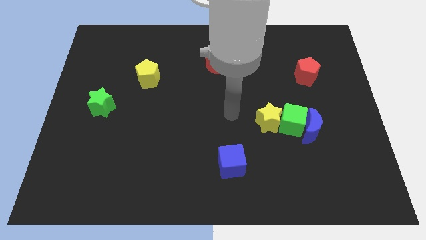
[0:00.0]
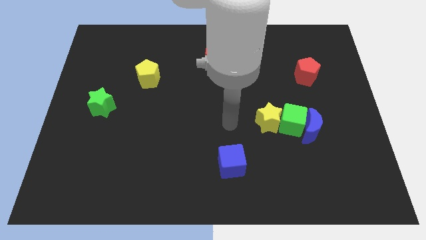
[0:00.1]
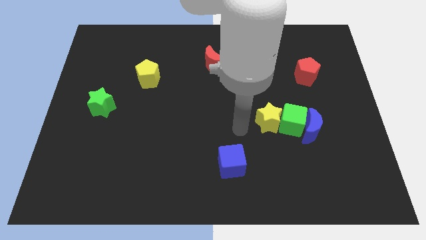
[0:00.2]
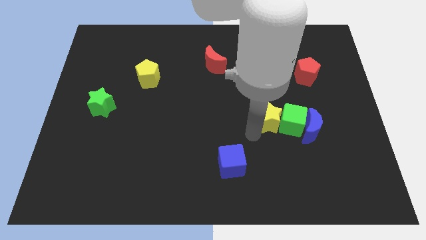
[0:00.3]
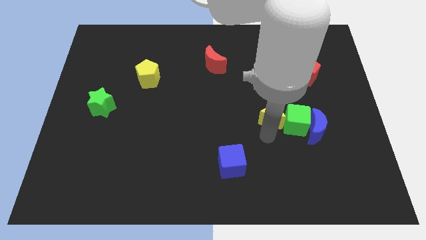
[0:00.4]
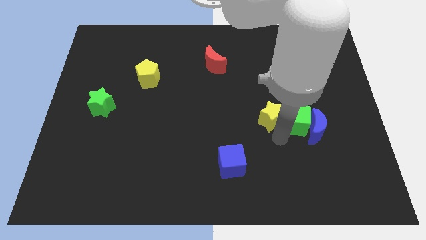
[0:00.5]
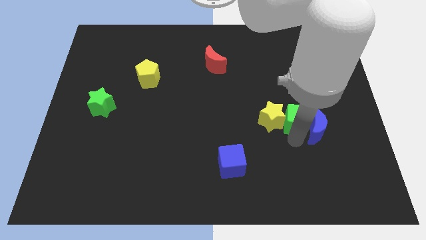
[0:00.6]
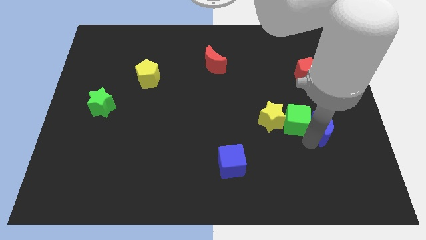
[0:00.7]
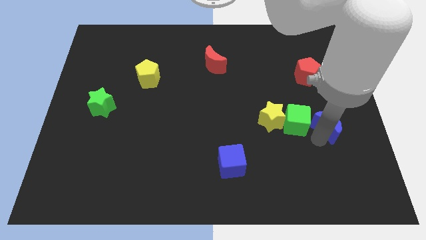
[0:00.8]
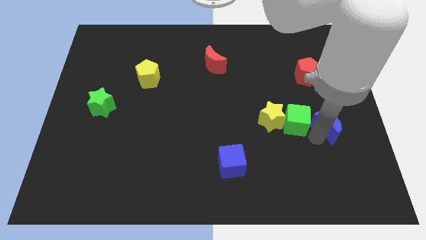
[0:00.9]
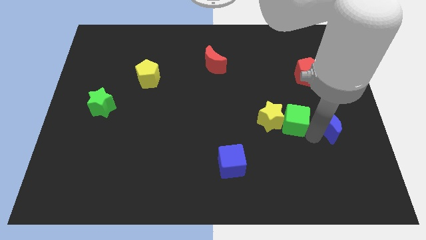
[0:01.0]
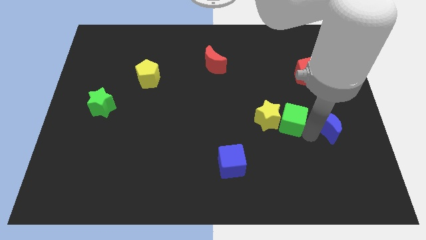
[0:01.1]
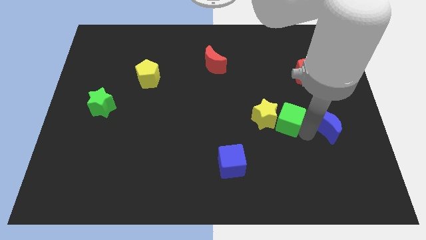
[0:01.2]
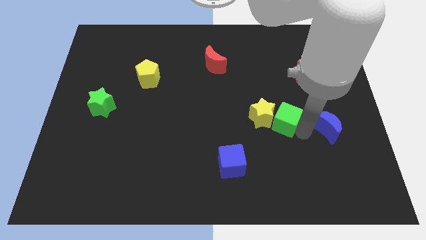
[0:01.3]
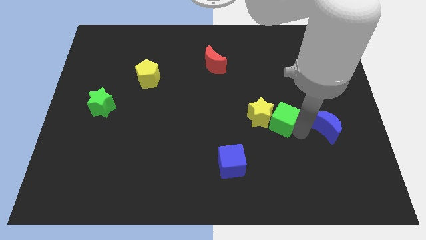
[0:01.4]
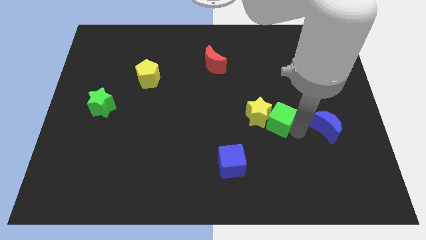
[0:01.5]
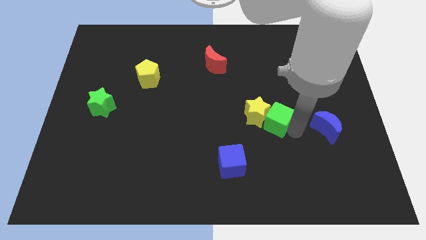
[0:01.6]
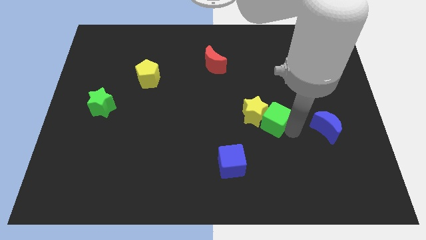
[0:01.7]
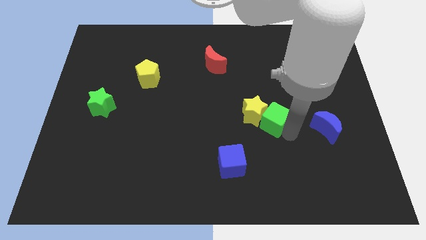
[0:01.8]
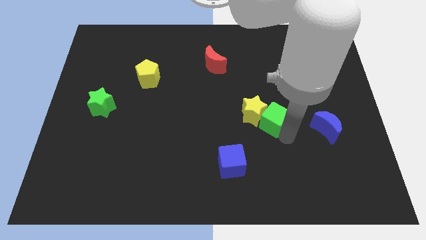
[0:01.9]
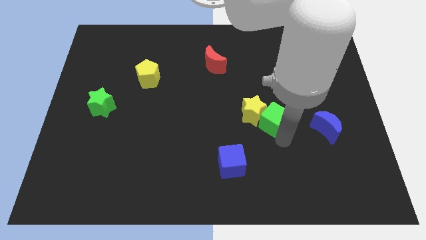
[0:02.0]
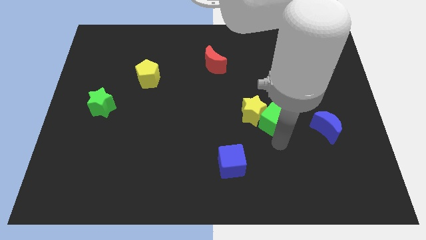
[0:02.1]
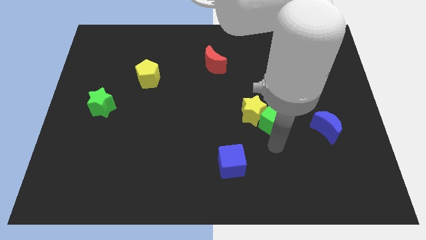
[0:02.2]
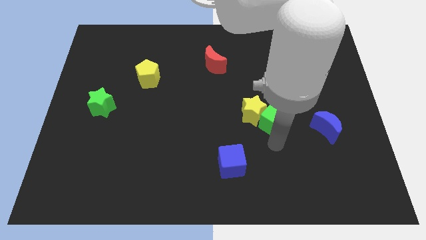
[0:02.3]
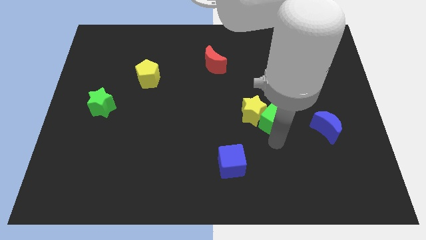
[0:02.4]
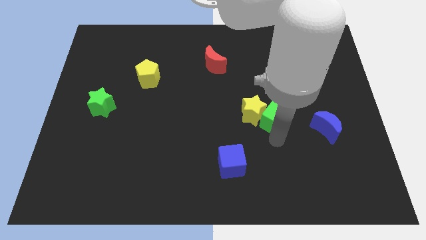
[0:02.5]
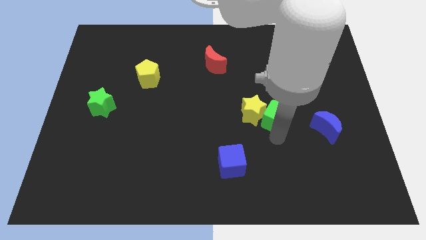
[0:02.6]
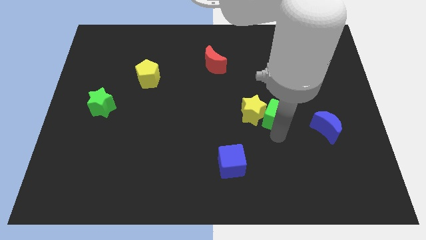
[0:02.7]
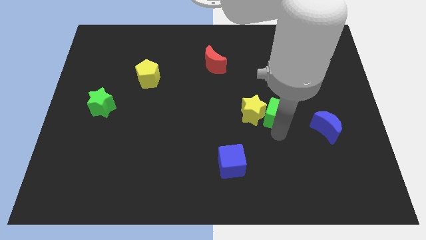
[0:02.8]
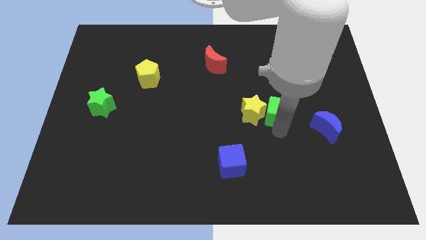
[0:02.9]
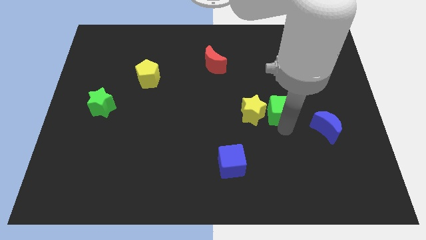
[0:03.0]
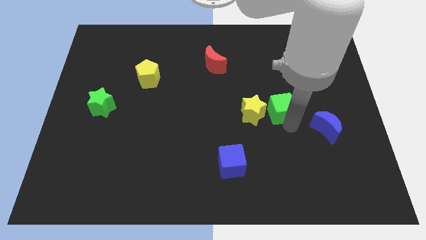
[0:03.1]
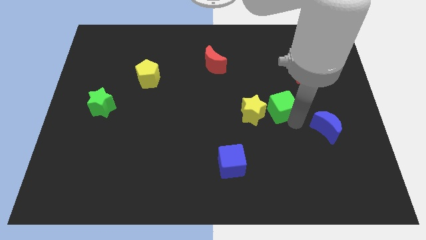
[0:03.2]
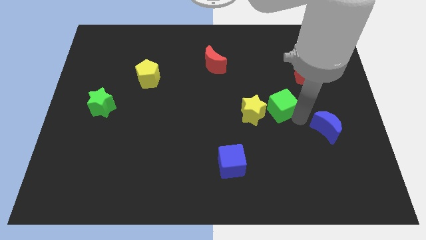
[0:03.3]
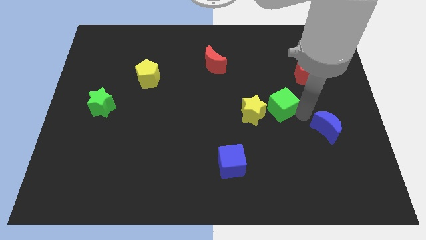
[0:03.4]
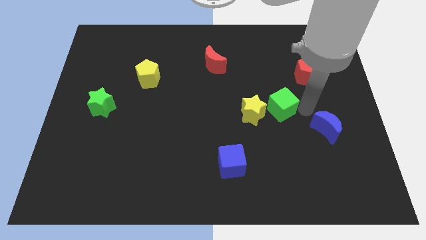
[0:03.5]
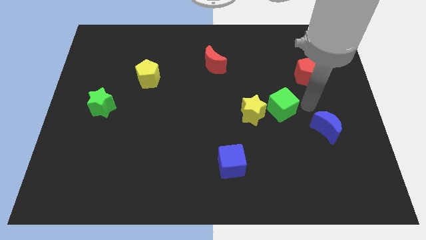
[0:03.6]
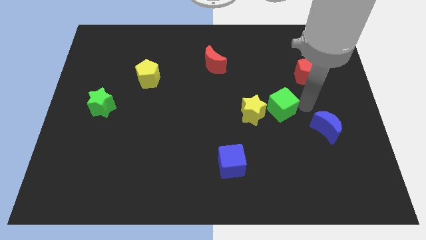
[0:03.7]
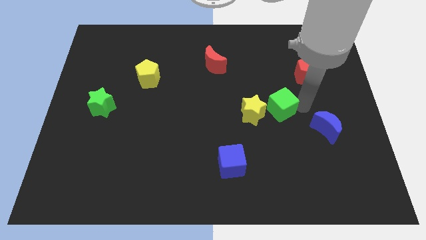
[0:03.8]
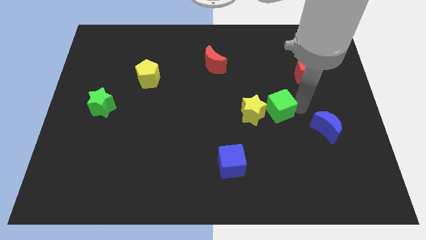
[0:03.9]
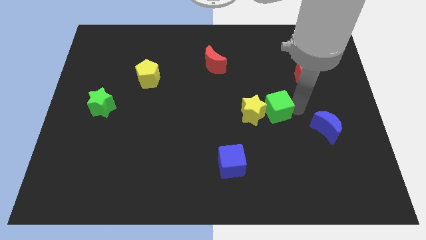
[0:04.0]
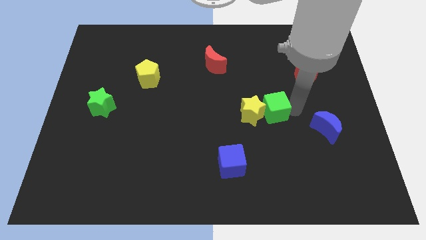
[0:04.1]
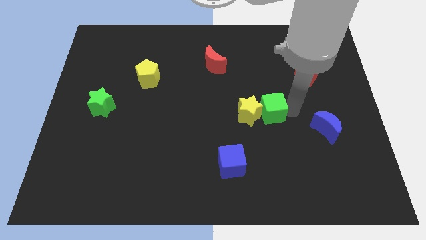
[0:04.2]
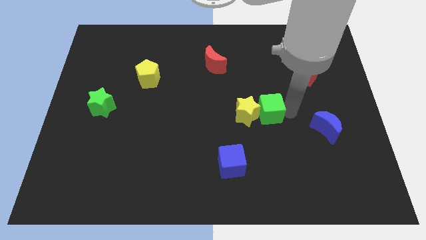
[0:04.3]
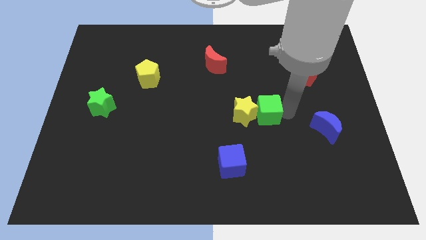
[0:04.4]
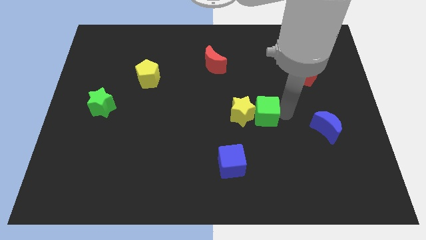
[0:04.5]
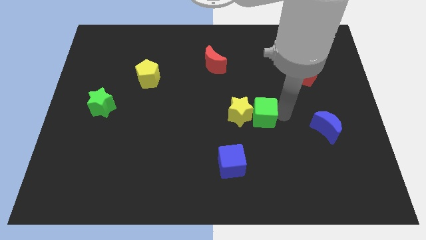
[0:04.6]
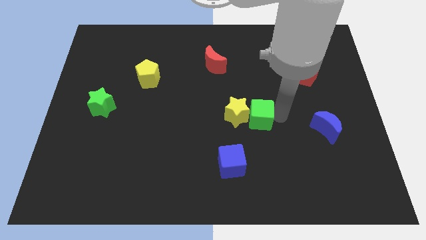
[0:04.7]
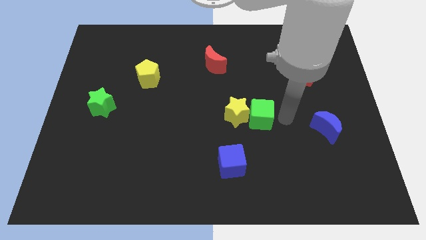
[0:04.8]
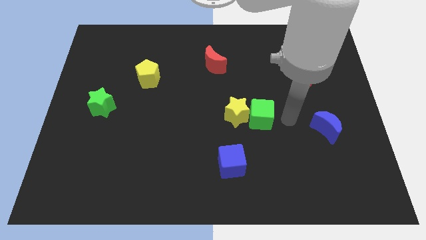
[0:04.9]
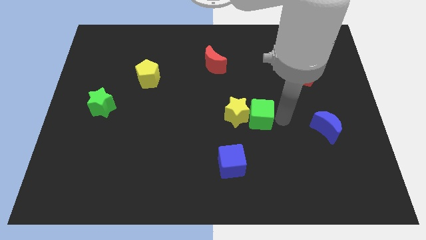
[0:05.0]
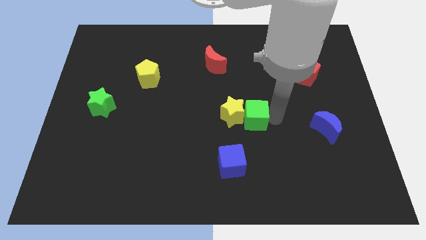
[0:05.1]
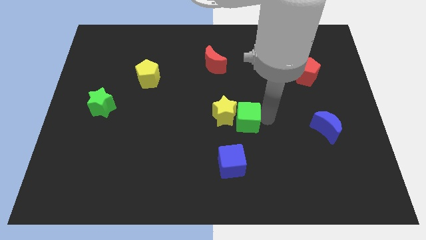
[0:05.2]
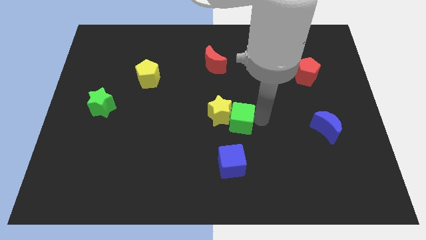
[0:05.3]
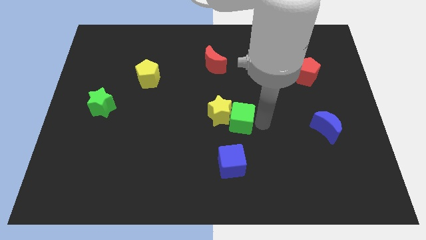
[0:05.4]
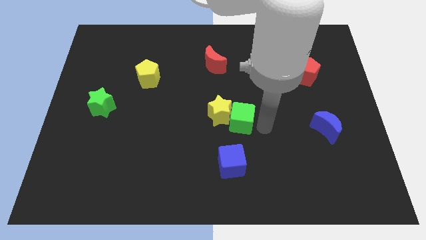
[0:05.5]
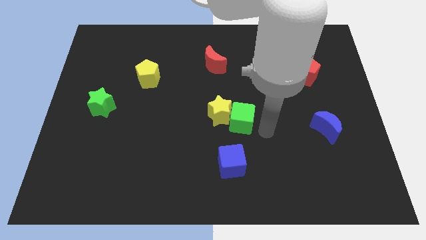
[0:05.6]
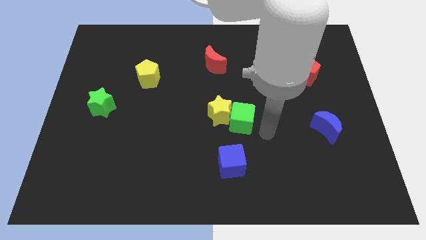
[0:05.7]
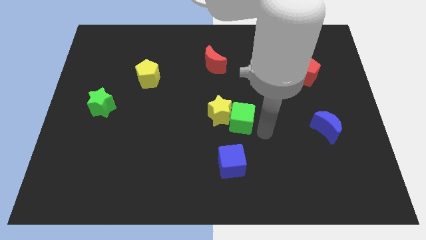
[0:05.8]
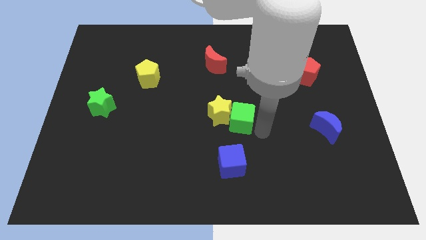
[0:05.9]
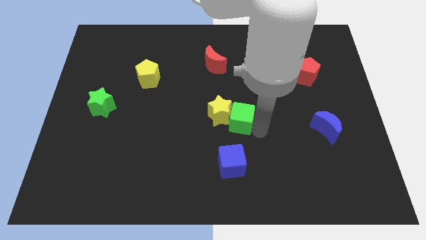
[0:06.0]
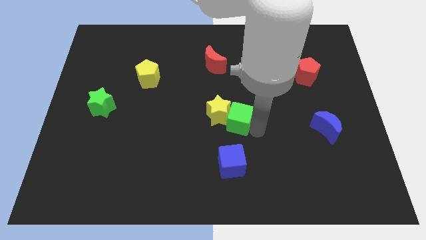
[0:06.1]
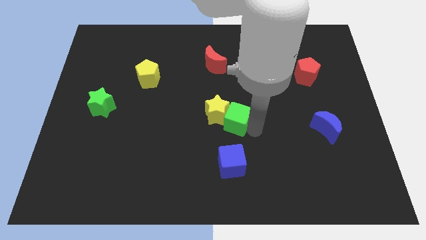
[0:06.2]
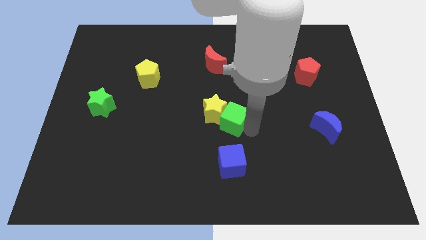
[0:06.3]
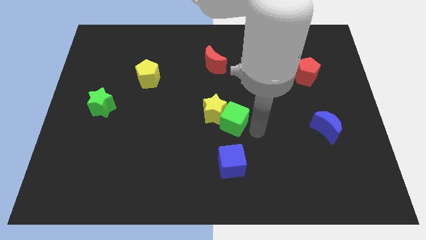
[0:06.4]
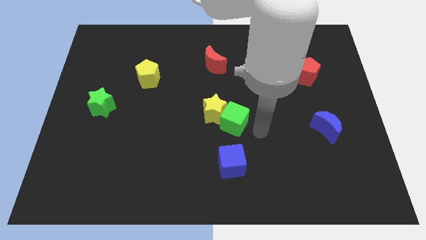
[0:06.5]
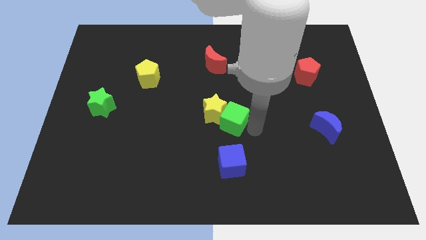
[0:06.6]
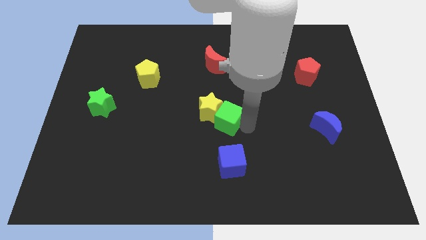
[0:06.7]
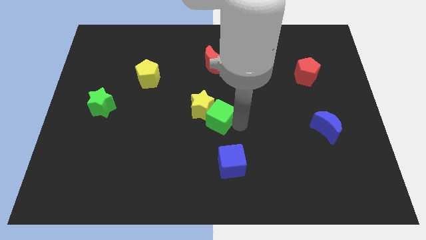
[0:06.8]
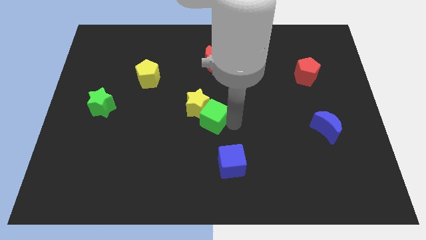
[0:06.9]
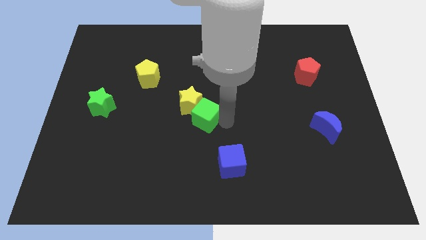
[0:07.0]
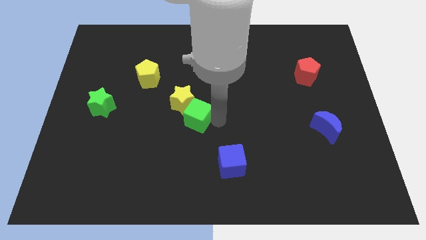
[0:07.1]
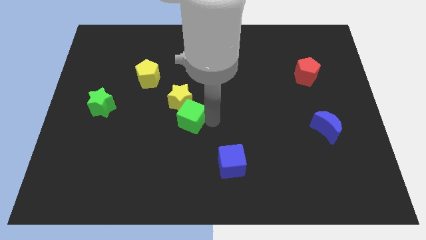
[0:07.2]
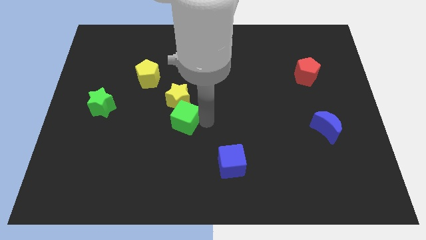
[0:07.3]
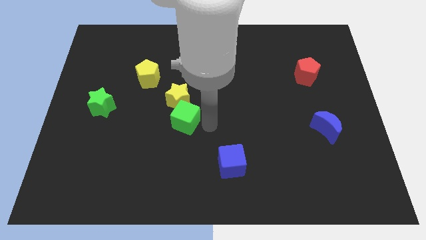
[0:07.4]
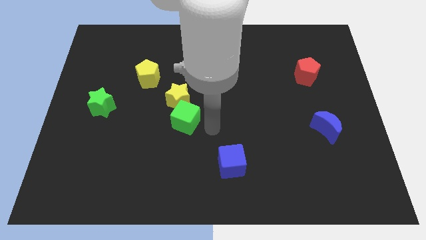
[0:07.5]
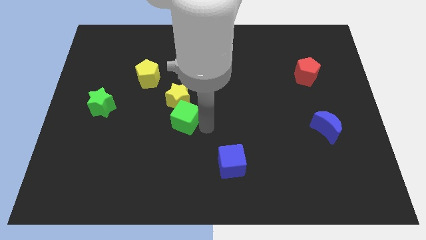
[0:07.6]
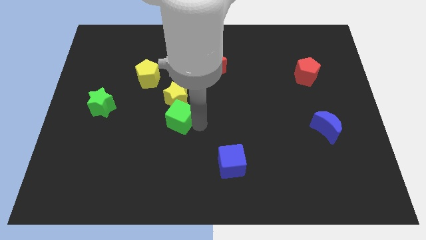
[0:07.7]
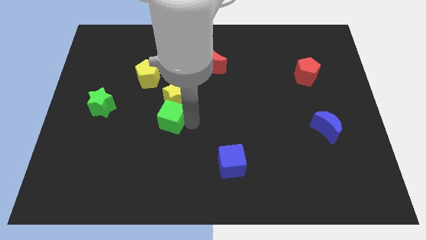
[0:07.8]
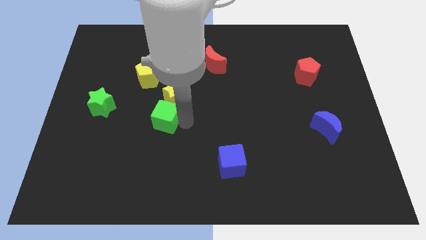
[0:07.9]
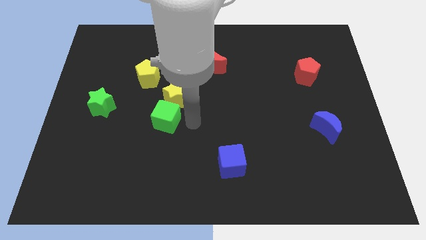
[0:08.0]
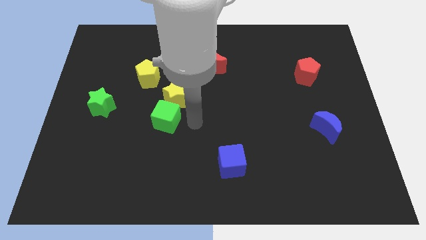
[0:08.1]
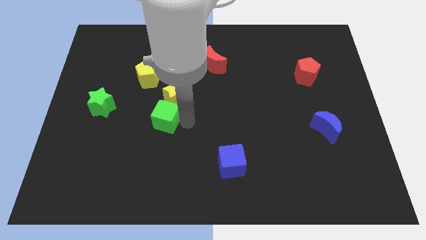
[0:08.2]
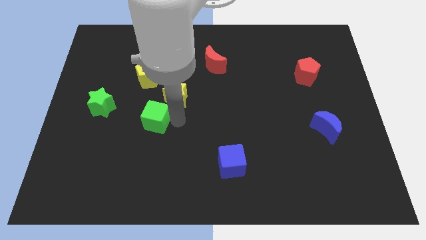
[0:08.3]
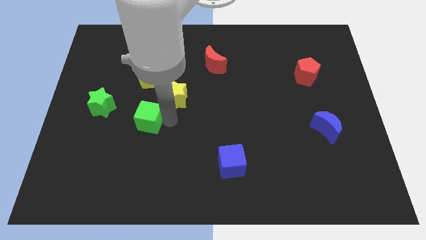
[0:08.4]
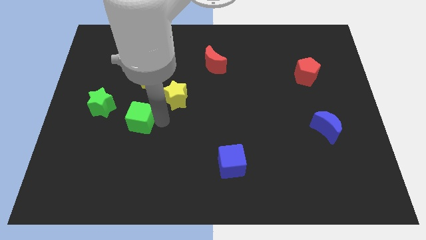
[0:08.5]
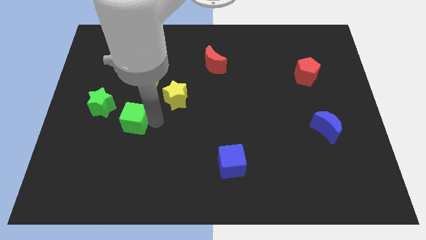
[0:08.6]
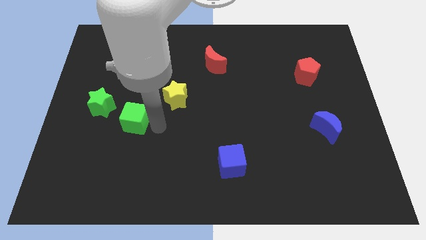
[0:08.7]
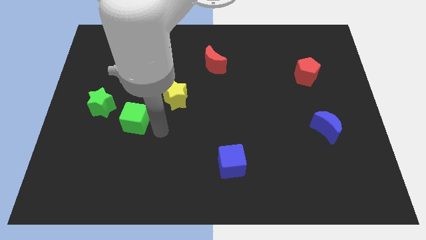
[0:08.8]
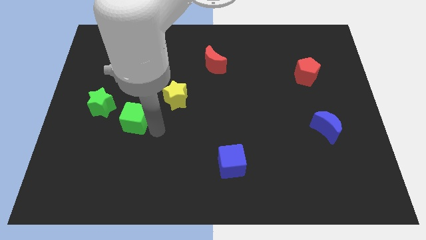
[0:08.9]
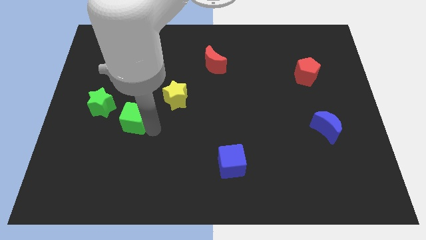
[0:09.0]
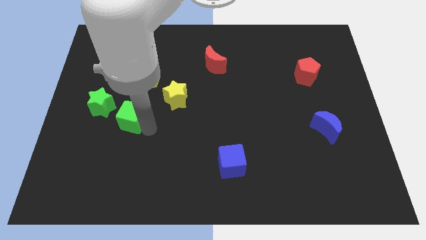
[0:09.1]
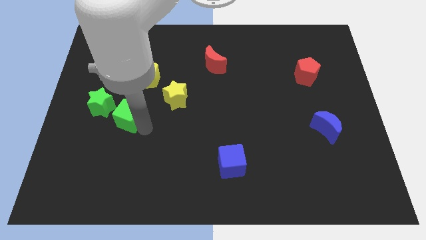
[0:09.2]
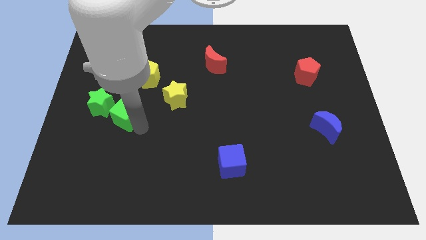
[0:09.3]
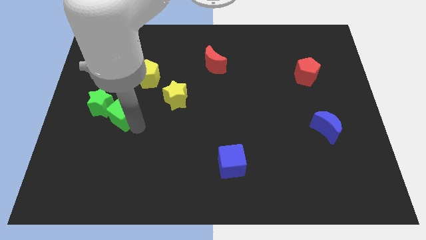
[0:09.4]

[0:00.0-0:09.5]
move the green cube close to the green star
